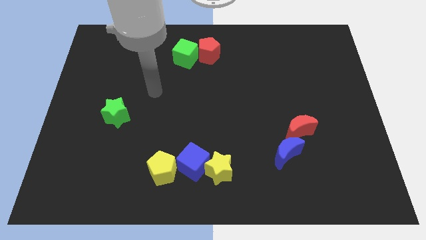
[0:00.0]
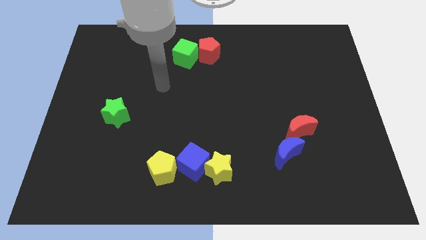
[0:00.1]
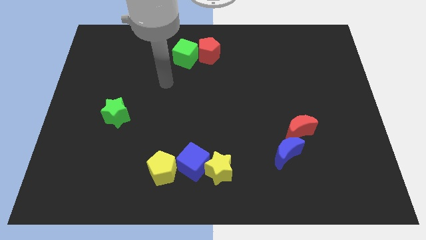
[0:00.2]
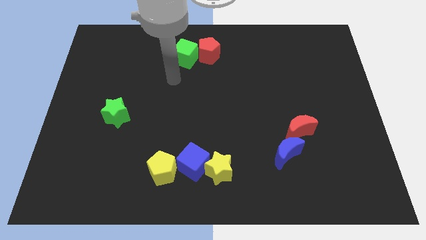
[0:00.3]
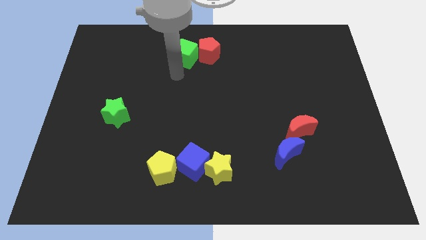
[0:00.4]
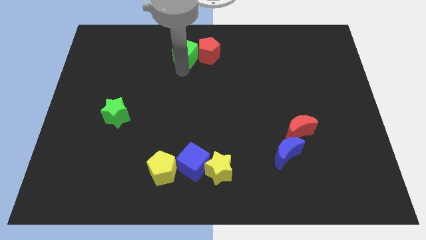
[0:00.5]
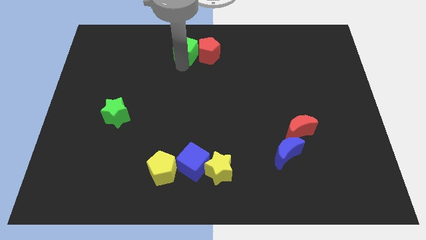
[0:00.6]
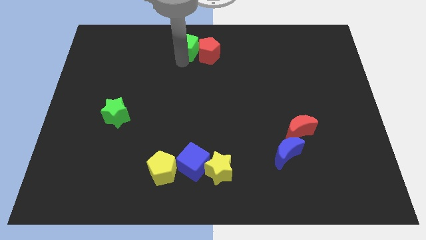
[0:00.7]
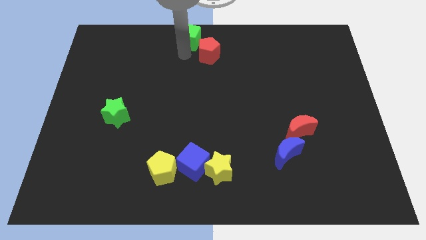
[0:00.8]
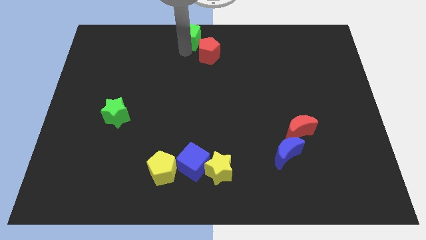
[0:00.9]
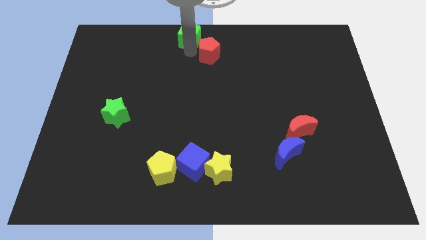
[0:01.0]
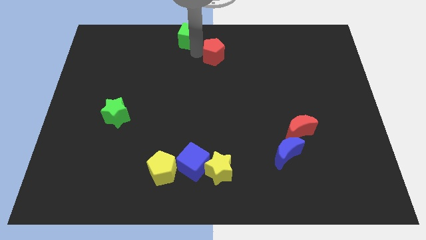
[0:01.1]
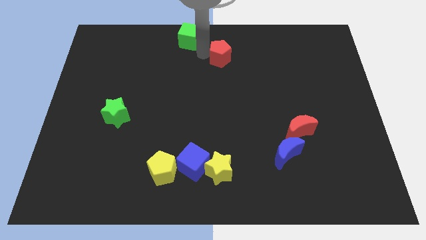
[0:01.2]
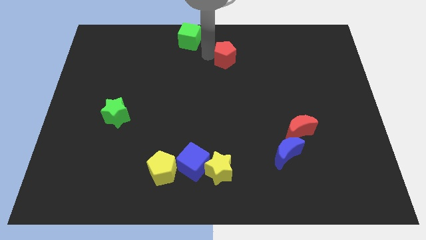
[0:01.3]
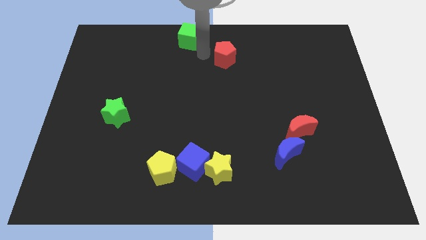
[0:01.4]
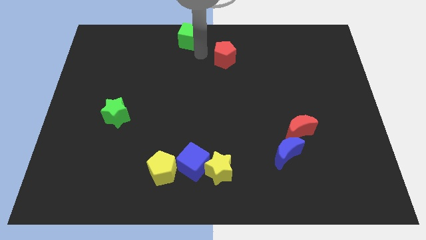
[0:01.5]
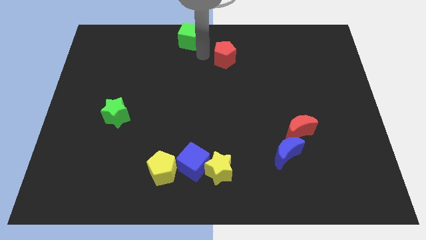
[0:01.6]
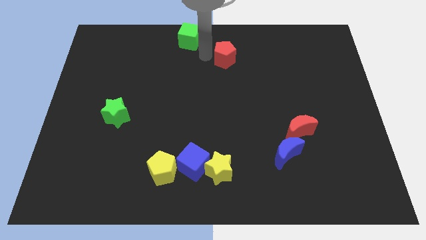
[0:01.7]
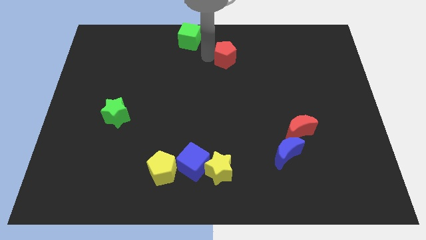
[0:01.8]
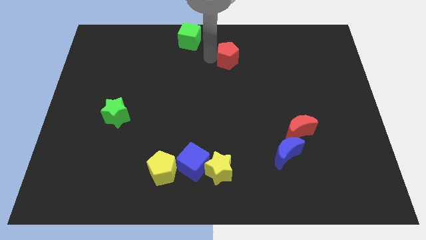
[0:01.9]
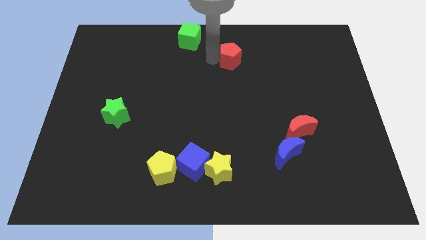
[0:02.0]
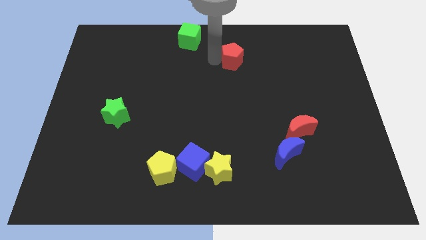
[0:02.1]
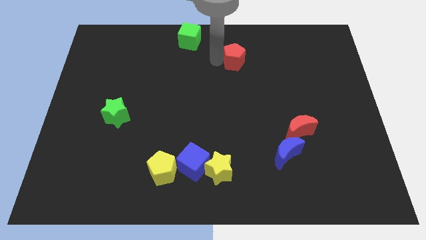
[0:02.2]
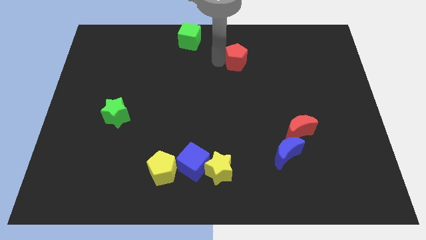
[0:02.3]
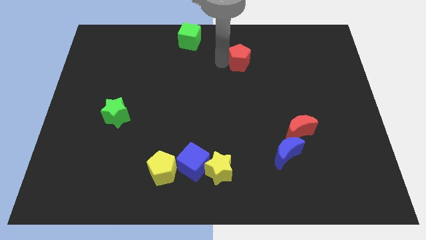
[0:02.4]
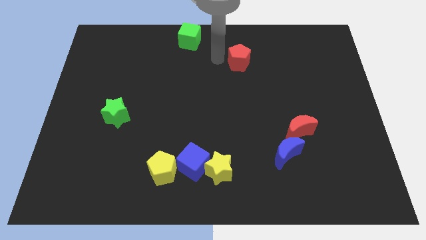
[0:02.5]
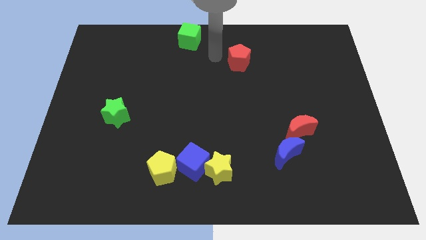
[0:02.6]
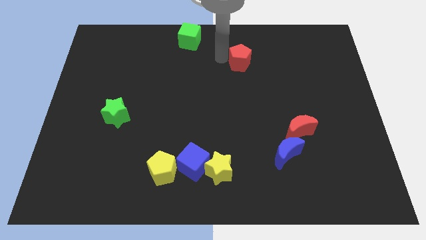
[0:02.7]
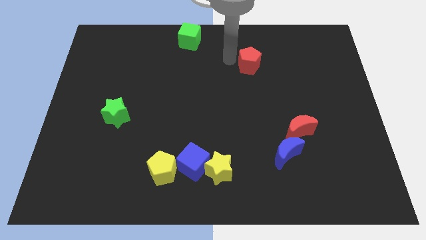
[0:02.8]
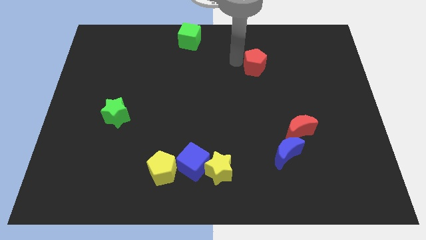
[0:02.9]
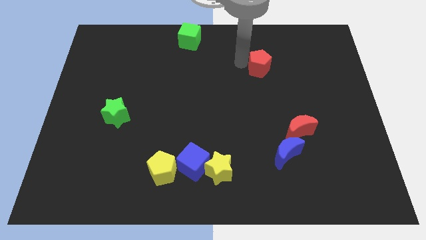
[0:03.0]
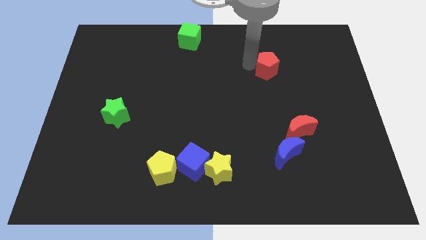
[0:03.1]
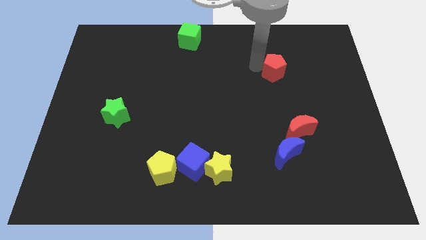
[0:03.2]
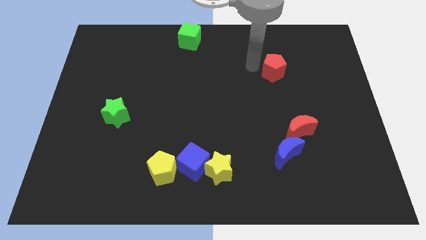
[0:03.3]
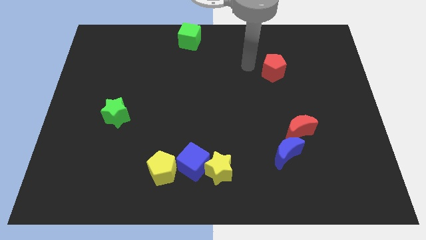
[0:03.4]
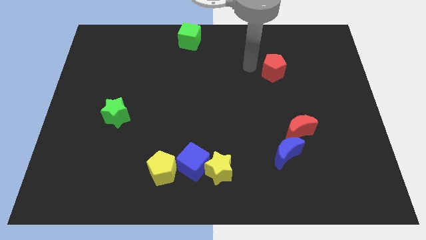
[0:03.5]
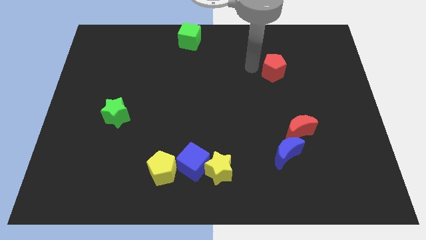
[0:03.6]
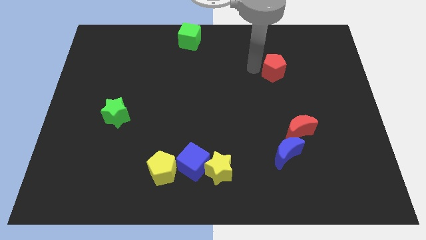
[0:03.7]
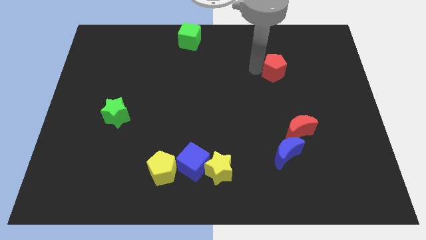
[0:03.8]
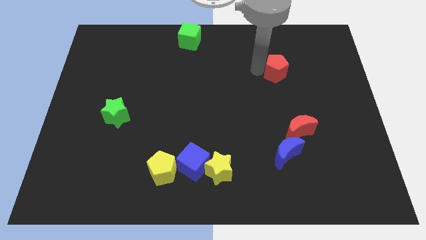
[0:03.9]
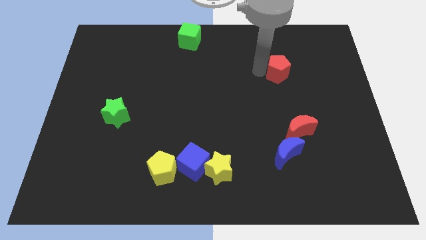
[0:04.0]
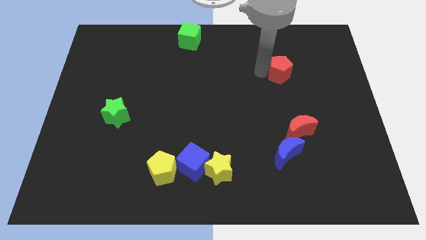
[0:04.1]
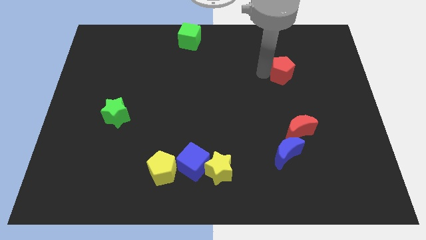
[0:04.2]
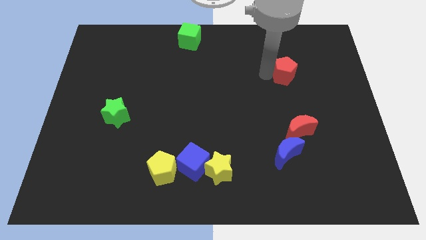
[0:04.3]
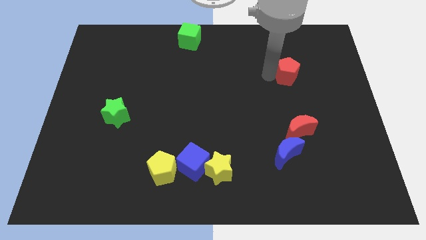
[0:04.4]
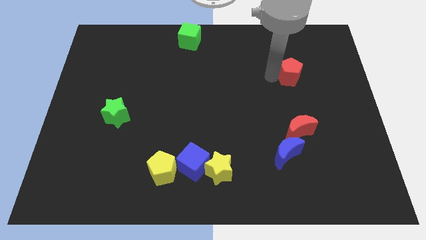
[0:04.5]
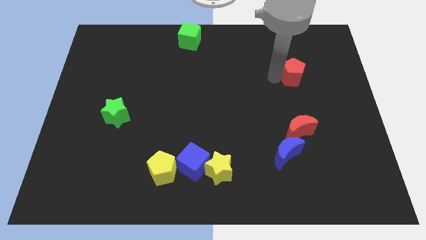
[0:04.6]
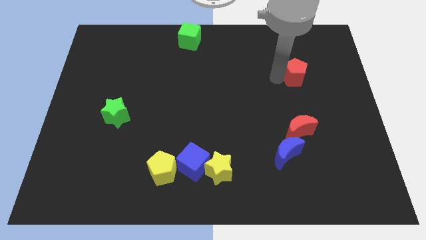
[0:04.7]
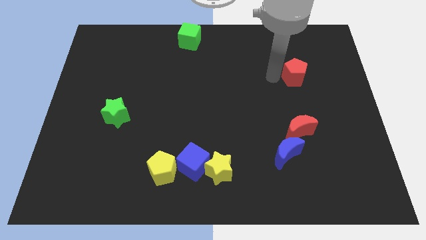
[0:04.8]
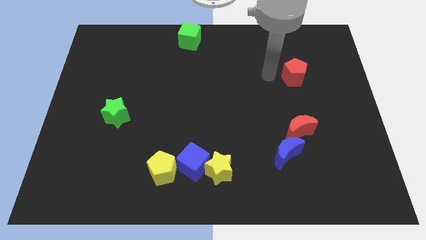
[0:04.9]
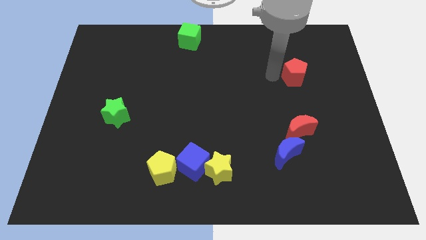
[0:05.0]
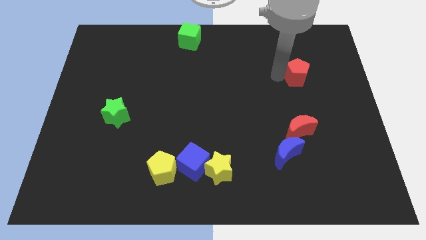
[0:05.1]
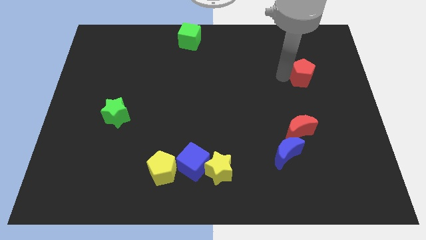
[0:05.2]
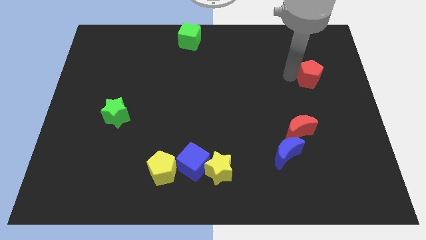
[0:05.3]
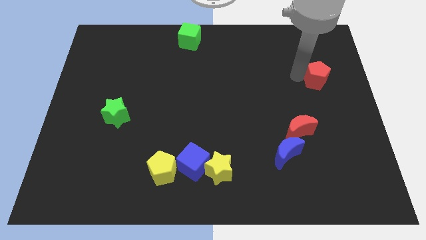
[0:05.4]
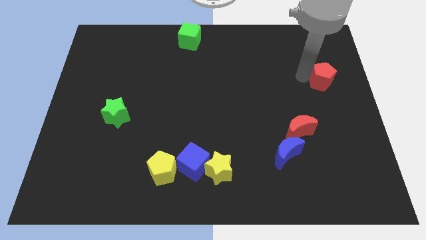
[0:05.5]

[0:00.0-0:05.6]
slide the red pentagon to the right side of the board
